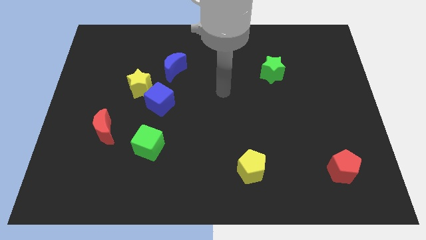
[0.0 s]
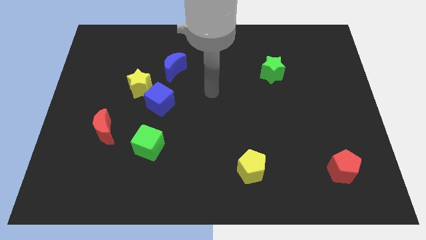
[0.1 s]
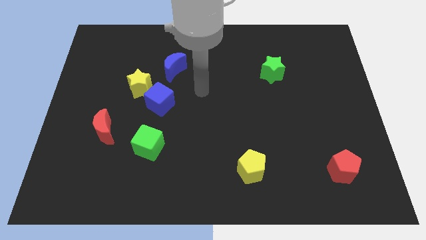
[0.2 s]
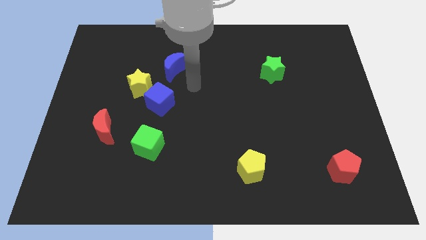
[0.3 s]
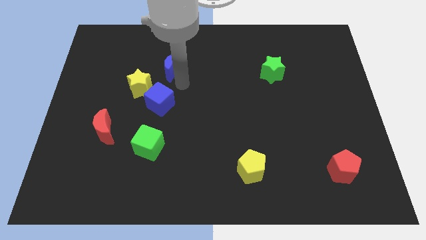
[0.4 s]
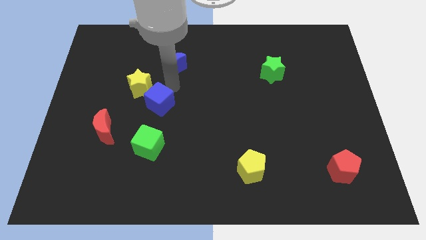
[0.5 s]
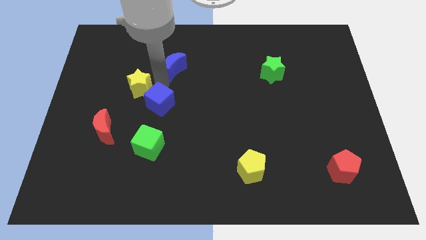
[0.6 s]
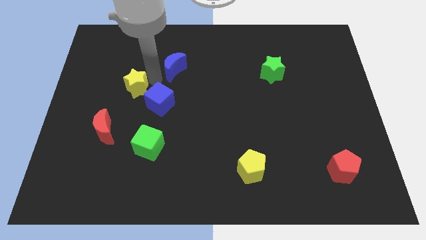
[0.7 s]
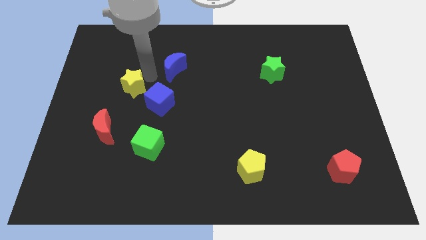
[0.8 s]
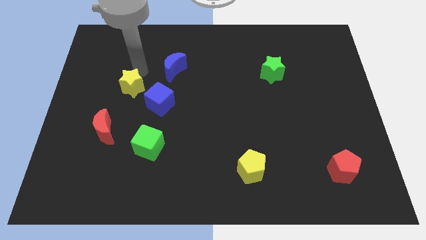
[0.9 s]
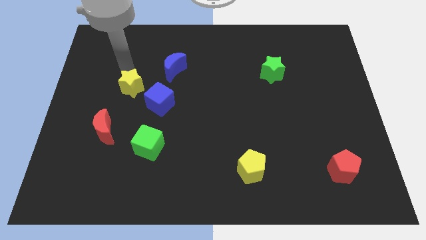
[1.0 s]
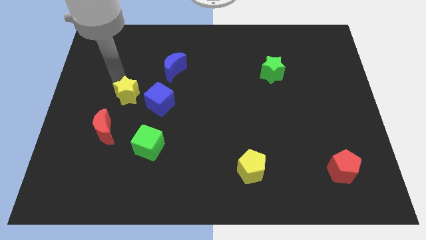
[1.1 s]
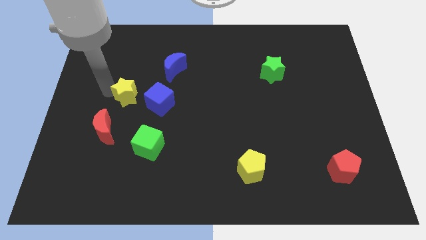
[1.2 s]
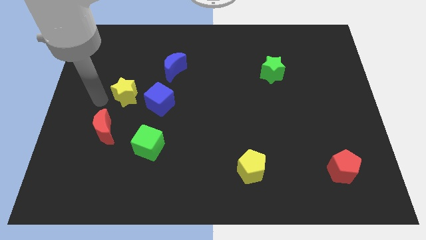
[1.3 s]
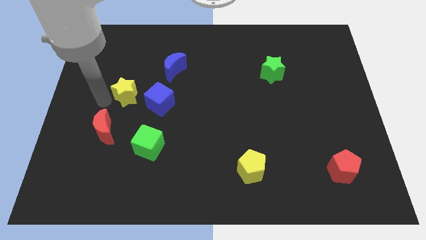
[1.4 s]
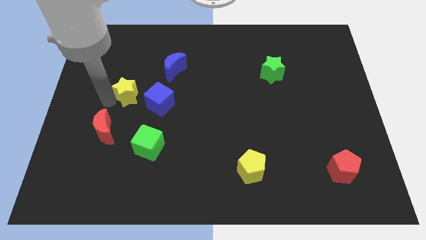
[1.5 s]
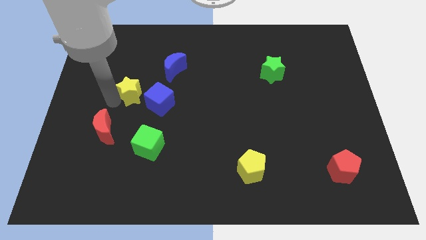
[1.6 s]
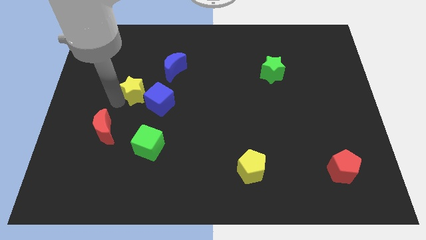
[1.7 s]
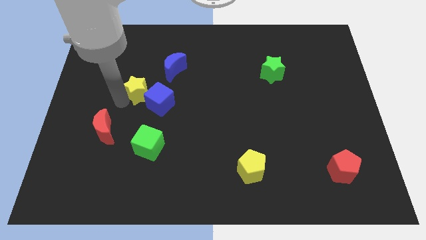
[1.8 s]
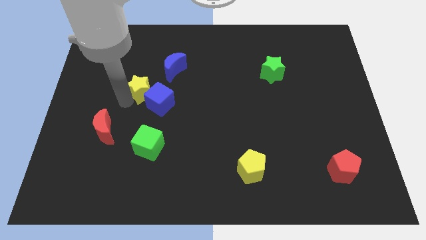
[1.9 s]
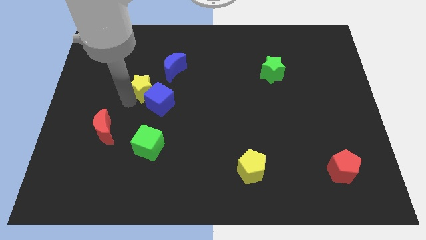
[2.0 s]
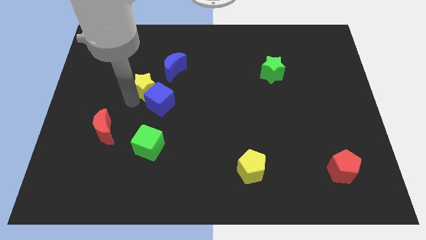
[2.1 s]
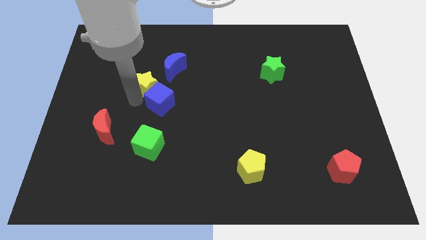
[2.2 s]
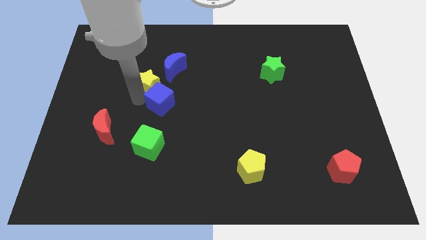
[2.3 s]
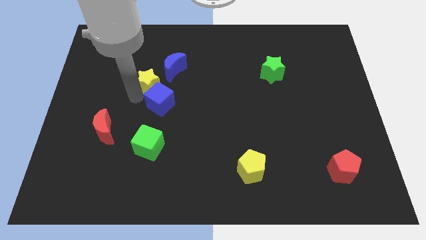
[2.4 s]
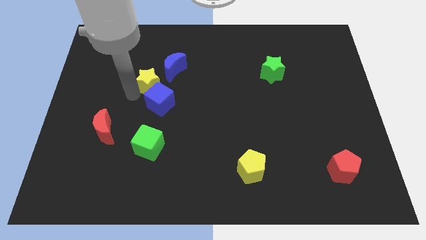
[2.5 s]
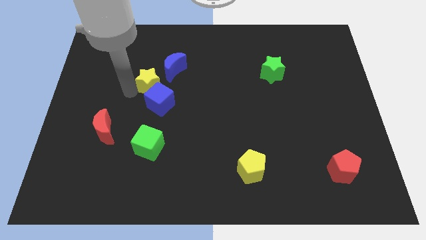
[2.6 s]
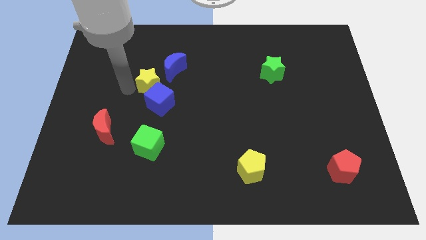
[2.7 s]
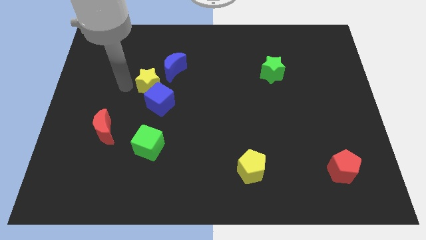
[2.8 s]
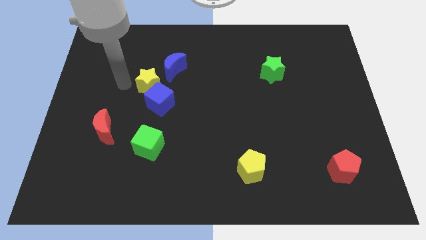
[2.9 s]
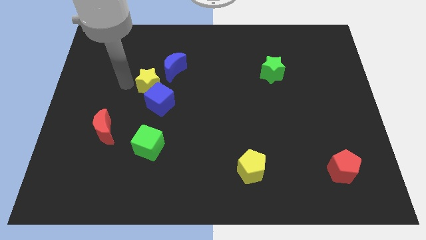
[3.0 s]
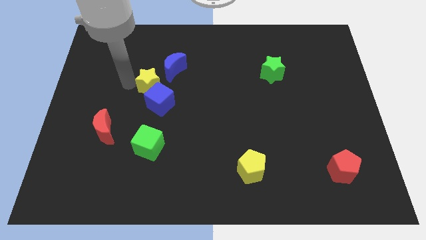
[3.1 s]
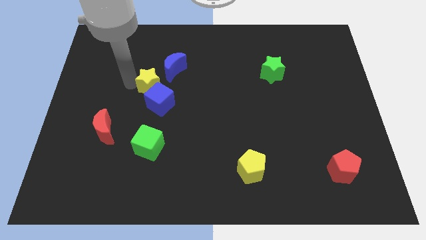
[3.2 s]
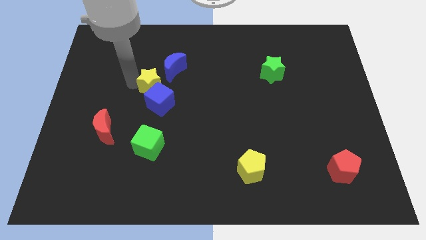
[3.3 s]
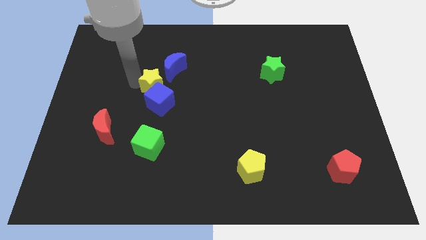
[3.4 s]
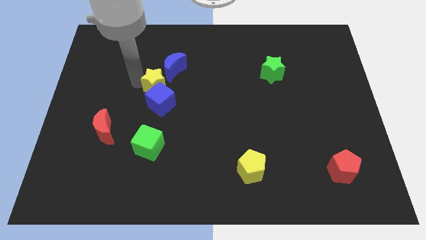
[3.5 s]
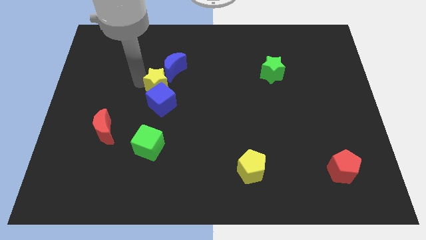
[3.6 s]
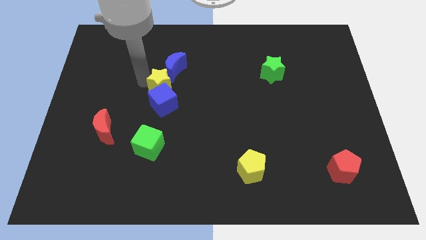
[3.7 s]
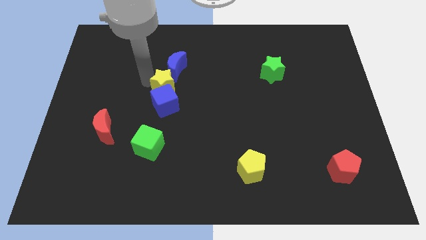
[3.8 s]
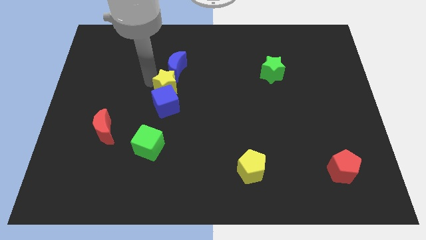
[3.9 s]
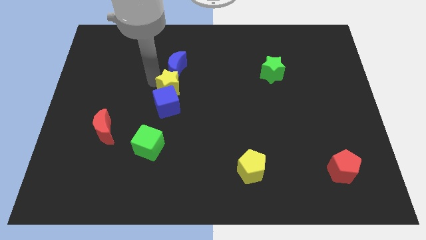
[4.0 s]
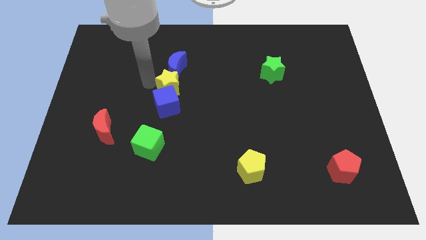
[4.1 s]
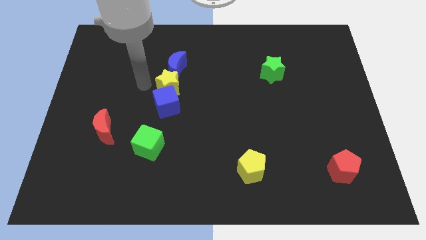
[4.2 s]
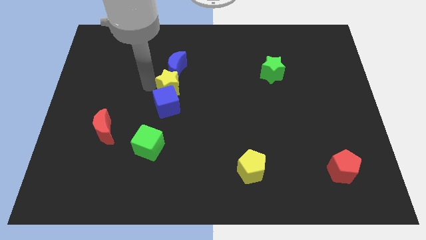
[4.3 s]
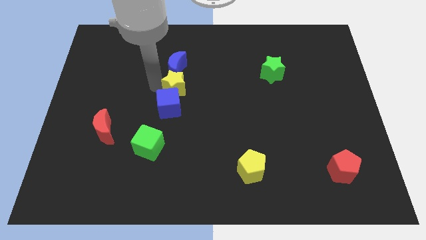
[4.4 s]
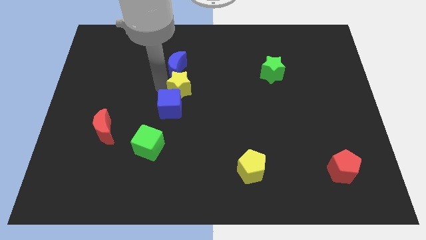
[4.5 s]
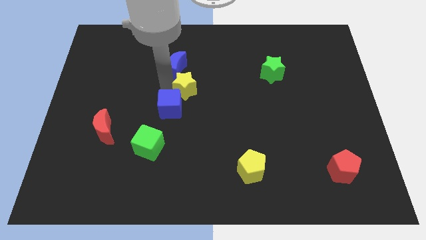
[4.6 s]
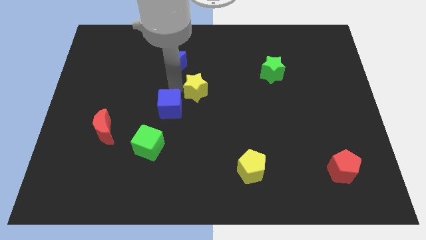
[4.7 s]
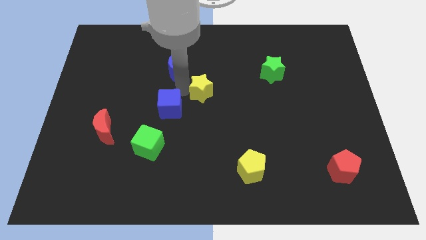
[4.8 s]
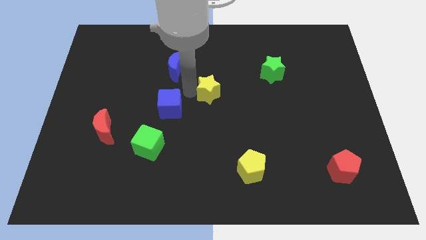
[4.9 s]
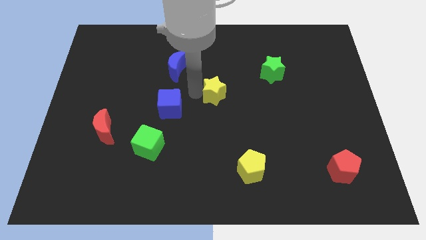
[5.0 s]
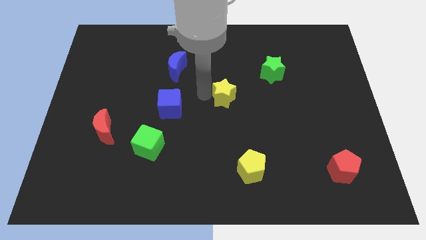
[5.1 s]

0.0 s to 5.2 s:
push the yellow star to the right

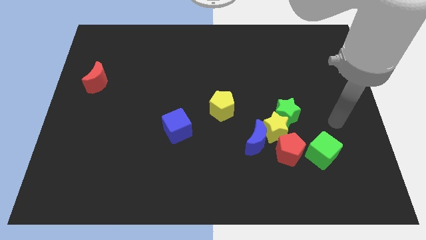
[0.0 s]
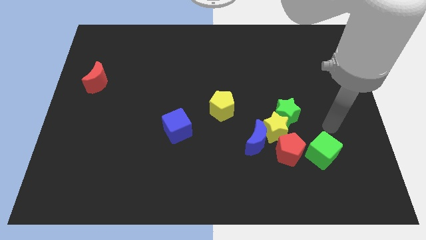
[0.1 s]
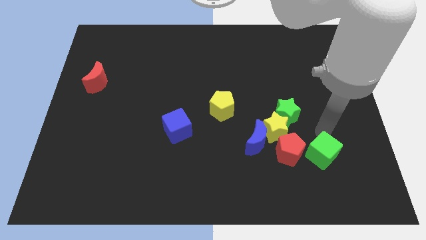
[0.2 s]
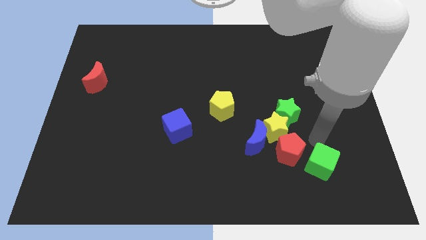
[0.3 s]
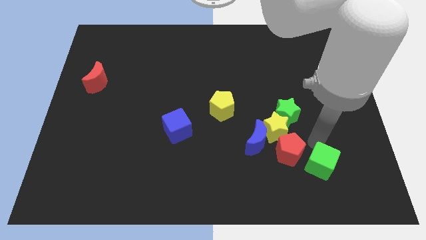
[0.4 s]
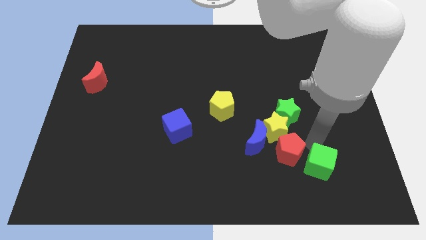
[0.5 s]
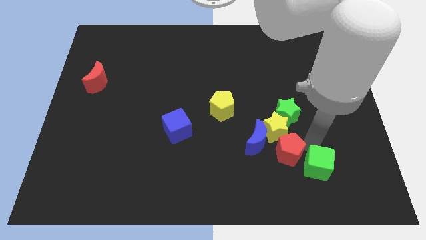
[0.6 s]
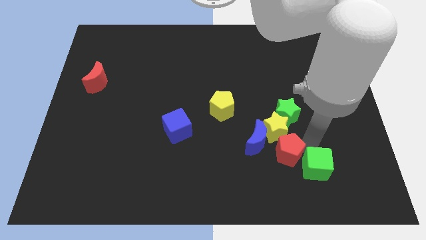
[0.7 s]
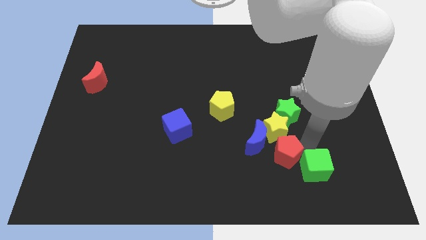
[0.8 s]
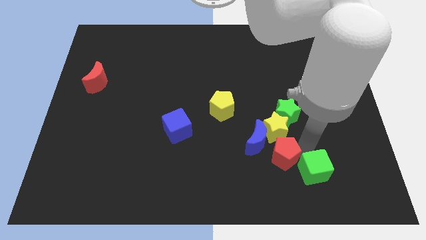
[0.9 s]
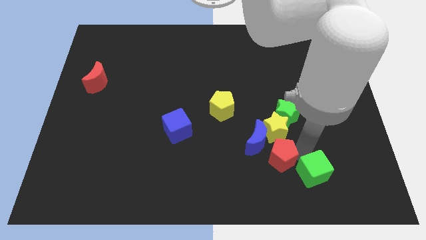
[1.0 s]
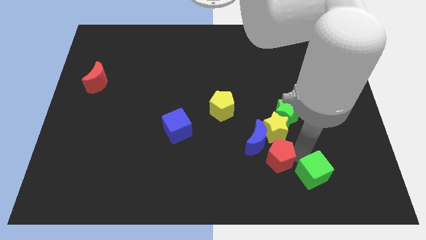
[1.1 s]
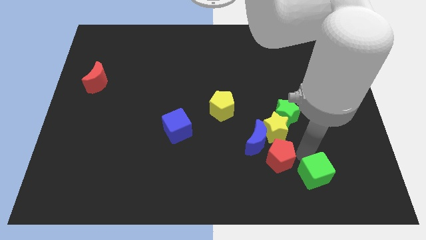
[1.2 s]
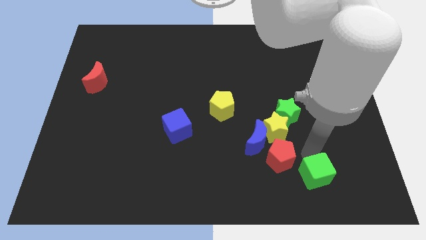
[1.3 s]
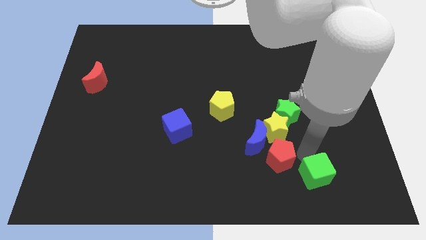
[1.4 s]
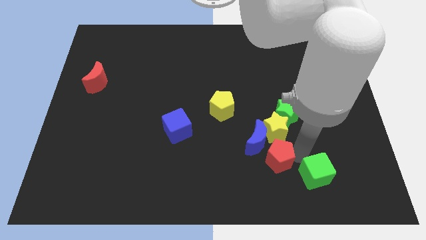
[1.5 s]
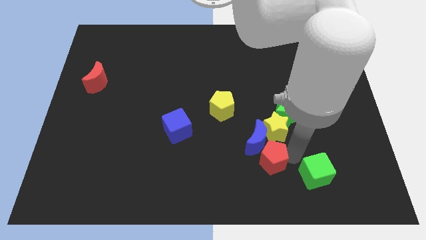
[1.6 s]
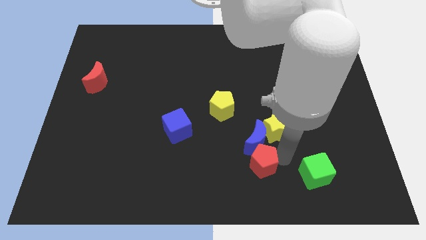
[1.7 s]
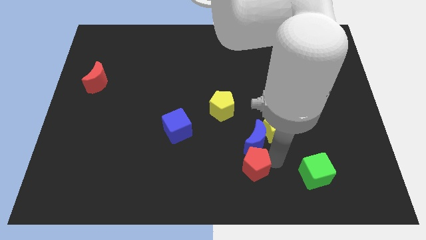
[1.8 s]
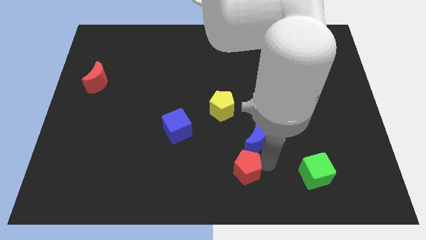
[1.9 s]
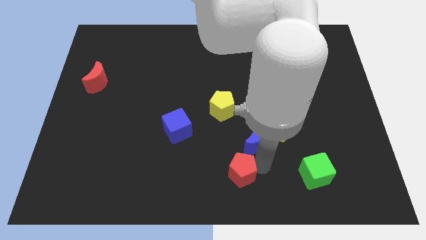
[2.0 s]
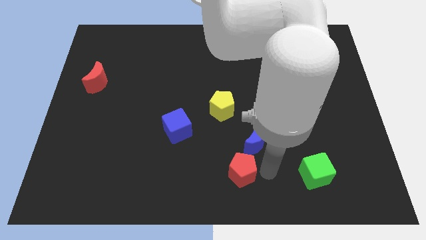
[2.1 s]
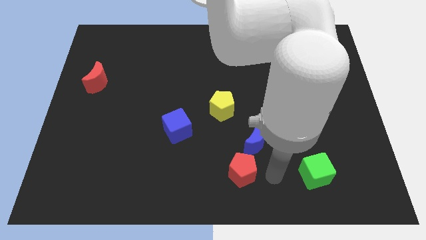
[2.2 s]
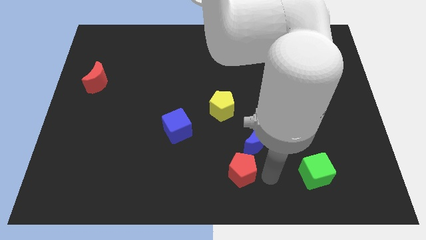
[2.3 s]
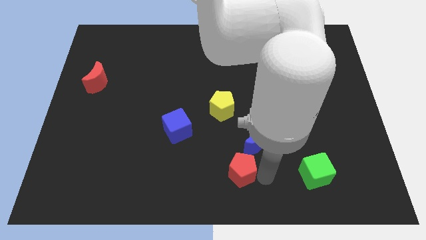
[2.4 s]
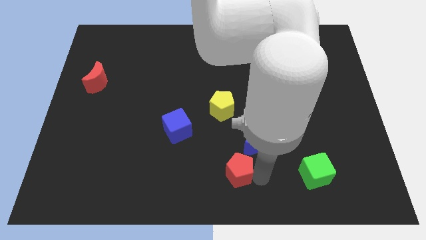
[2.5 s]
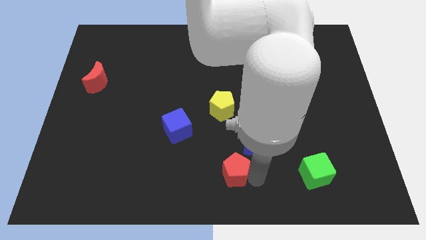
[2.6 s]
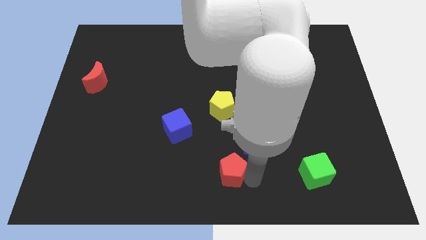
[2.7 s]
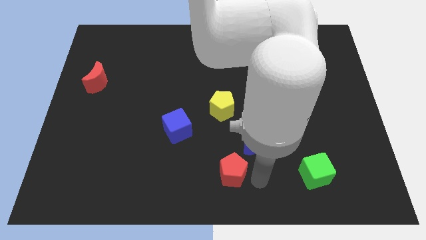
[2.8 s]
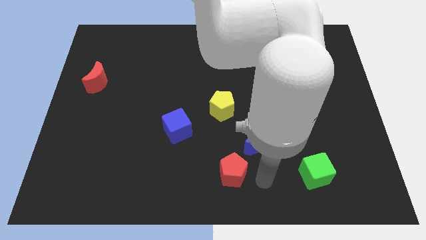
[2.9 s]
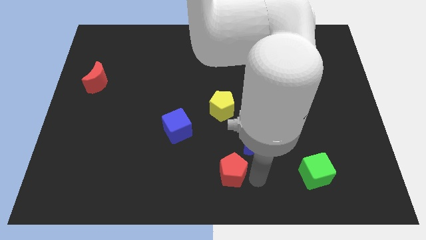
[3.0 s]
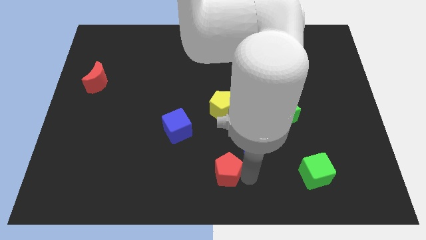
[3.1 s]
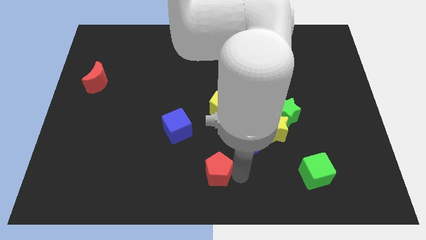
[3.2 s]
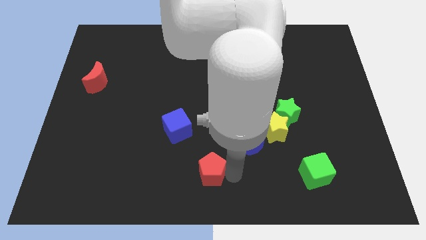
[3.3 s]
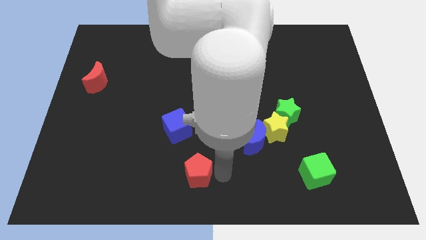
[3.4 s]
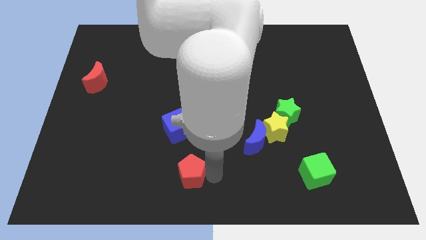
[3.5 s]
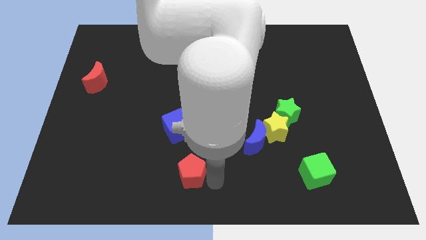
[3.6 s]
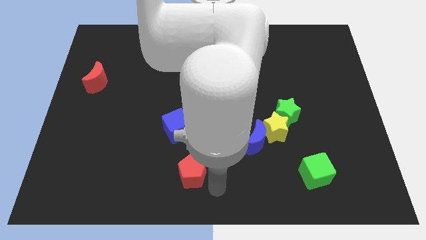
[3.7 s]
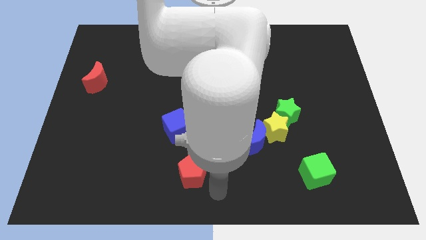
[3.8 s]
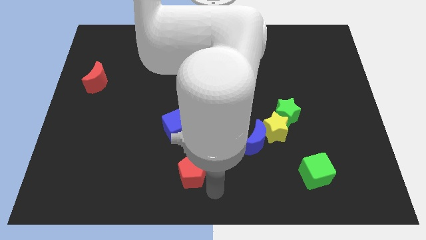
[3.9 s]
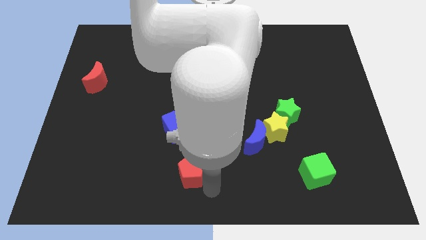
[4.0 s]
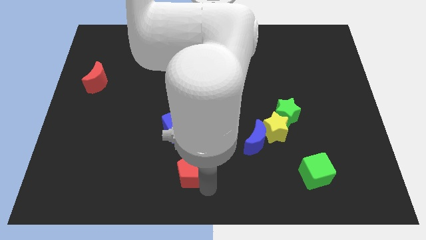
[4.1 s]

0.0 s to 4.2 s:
move the red pentagon left
